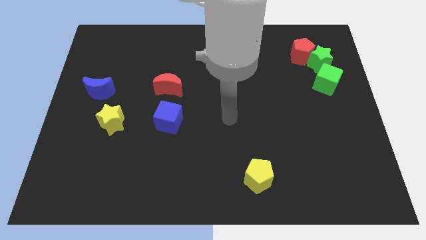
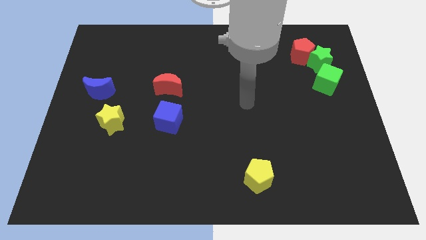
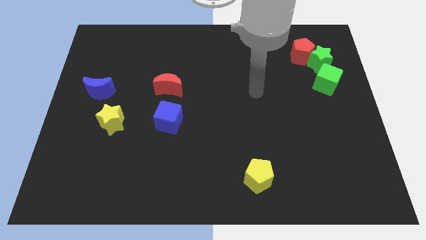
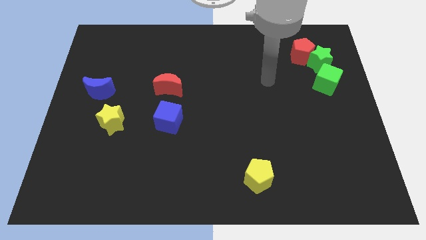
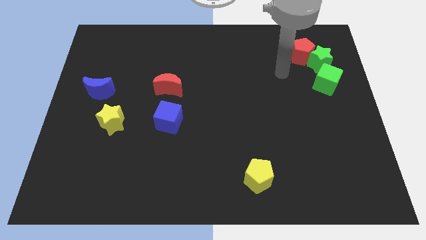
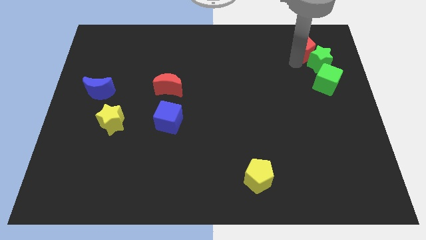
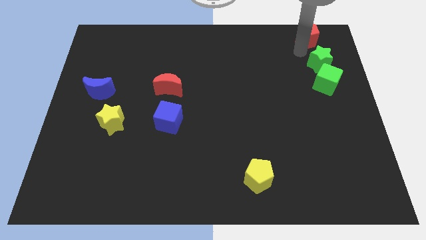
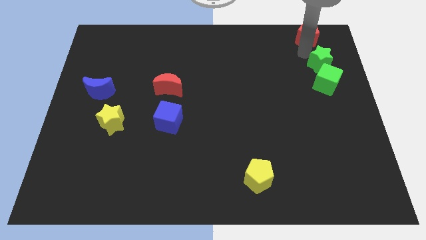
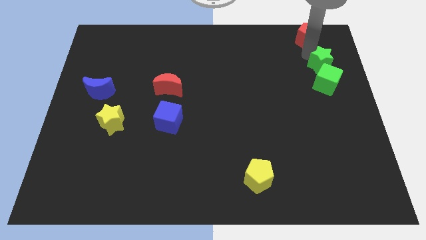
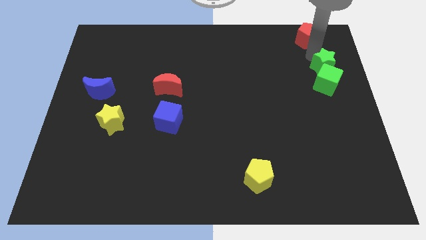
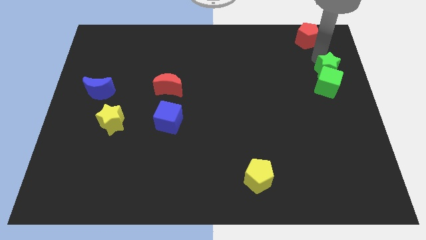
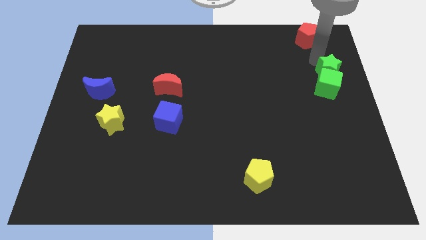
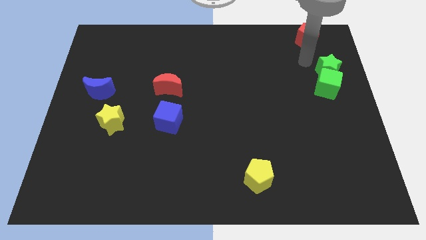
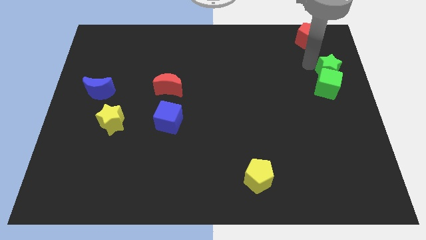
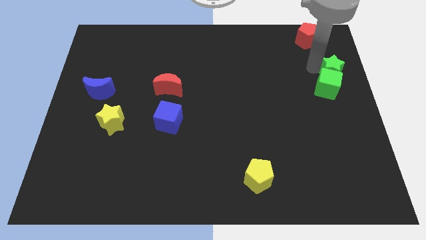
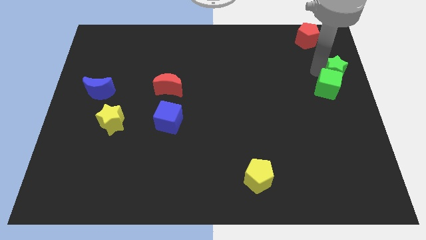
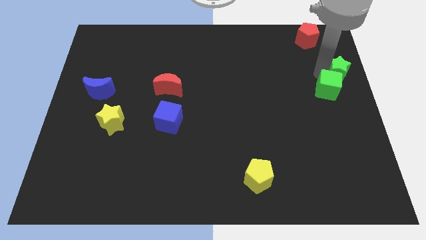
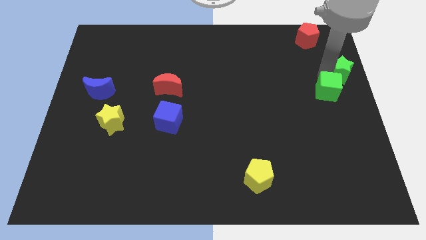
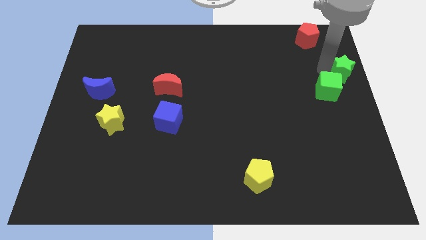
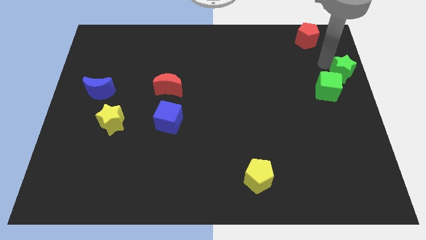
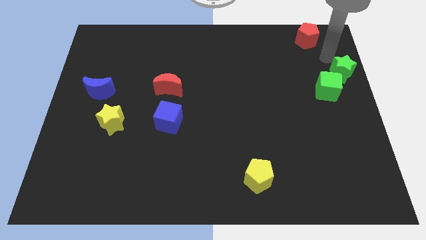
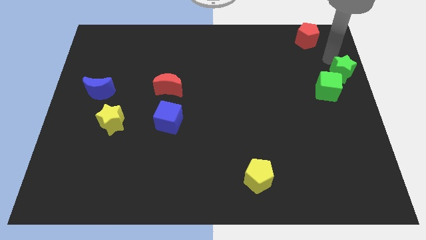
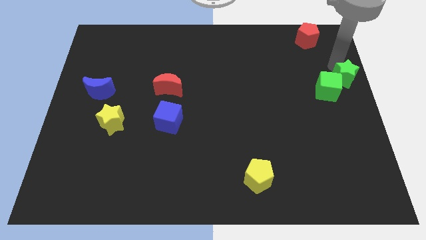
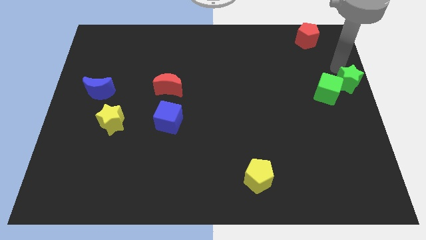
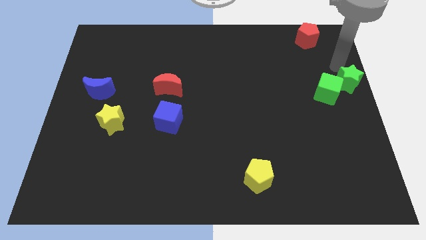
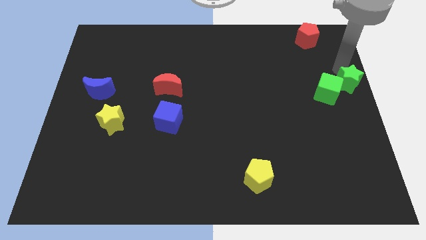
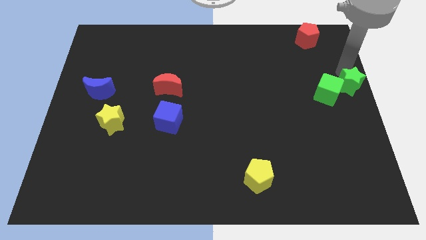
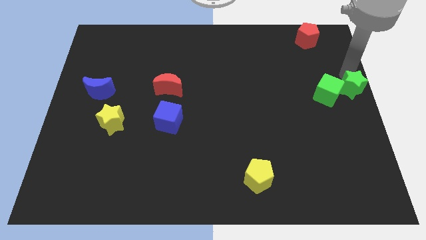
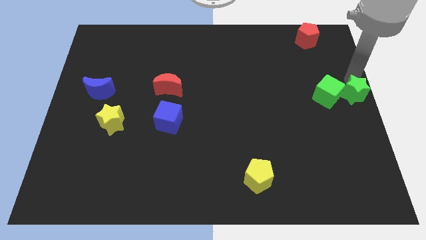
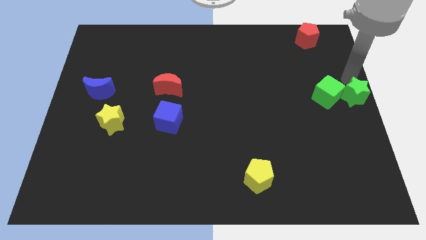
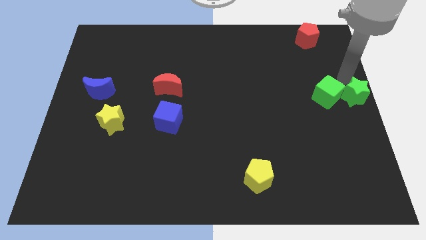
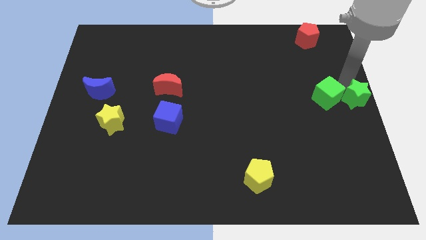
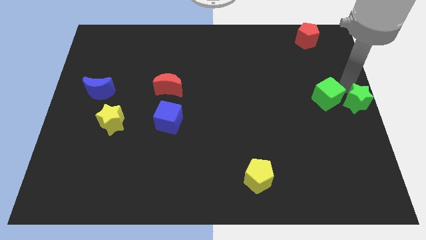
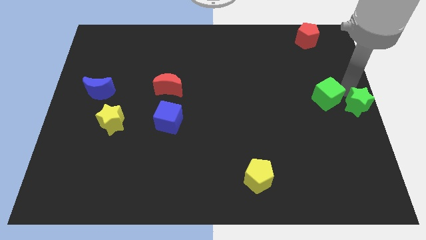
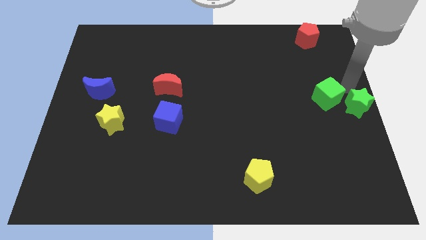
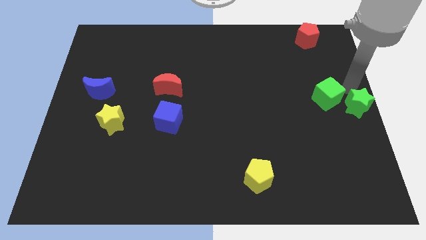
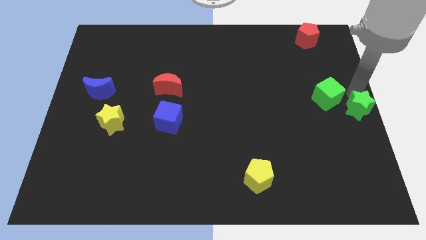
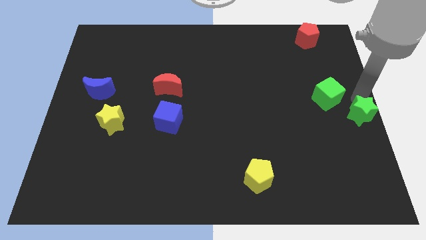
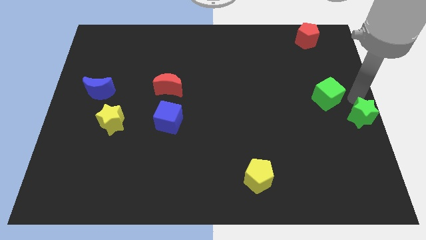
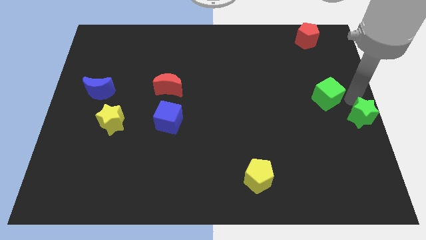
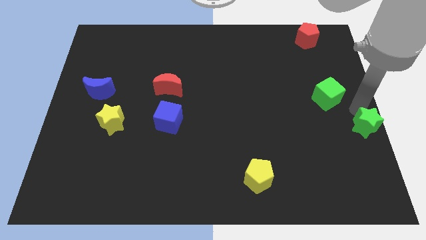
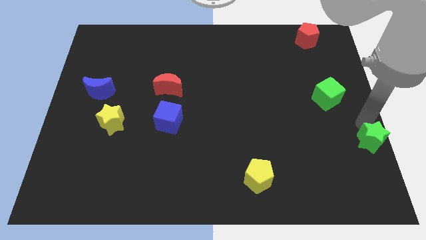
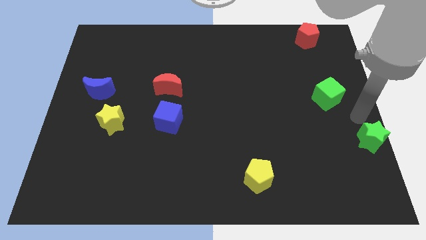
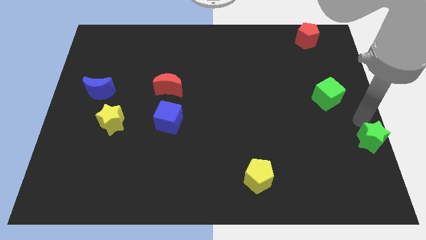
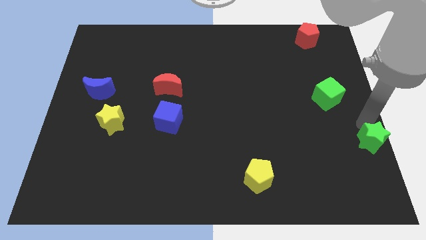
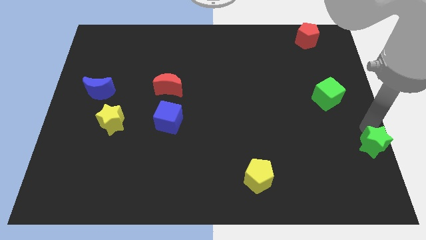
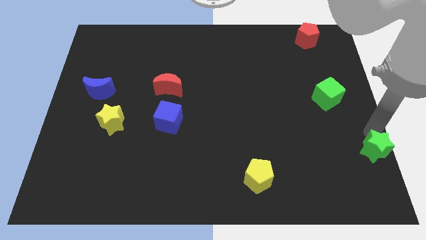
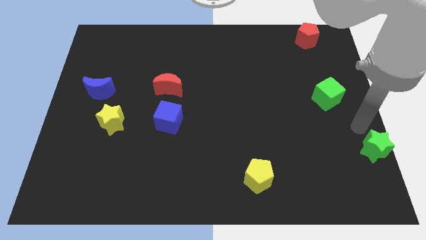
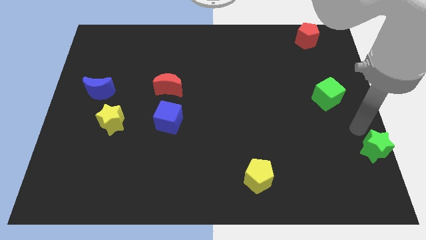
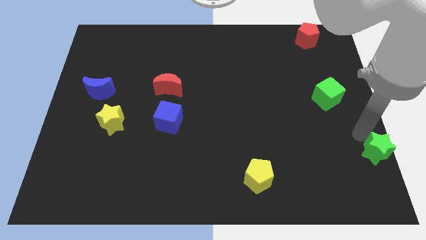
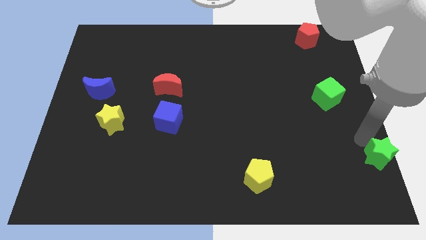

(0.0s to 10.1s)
put the green star to the bottom right

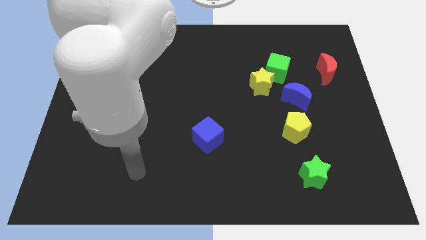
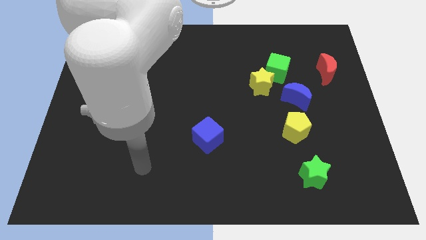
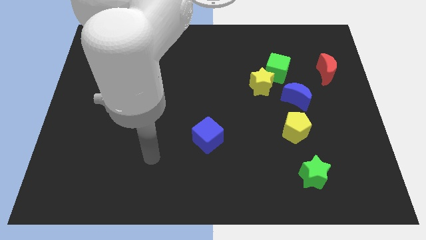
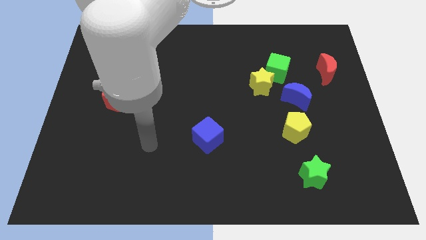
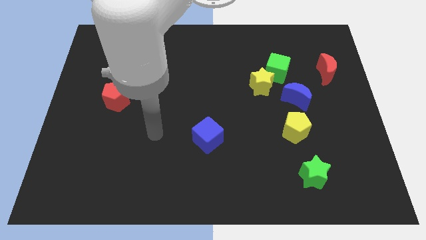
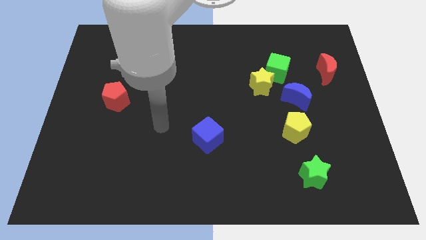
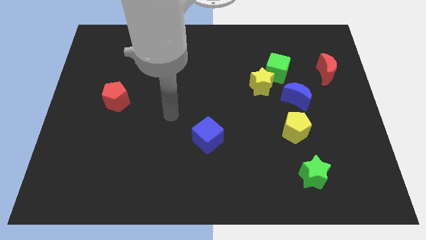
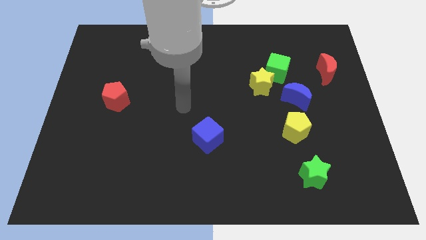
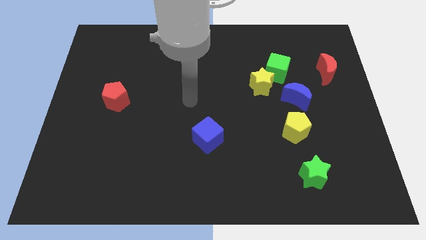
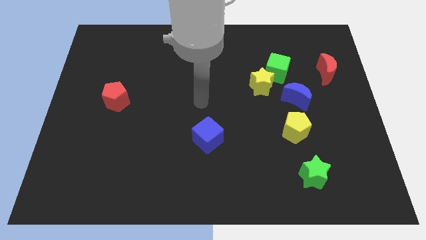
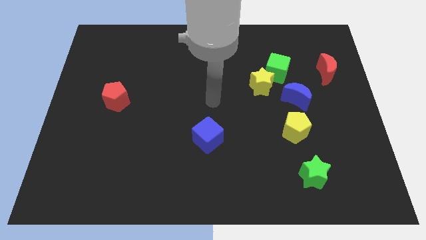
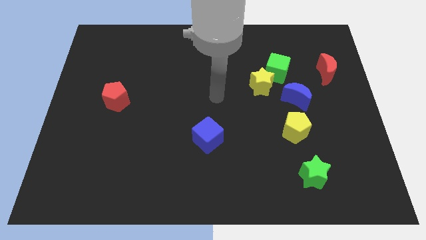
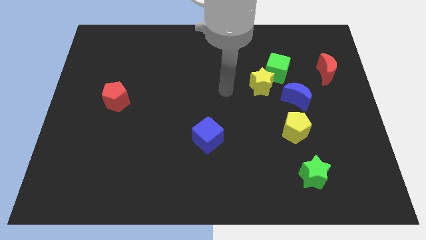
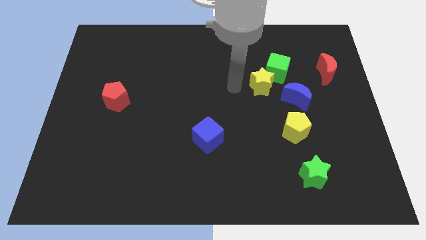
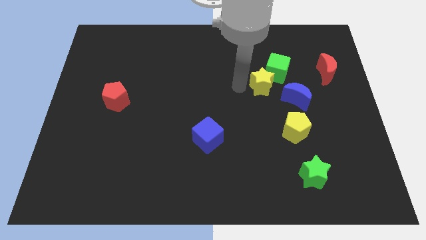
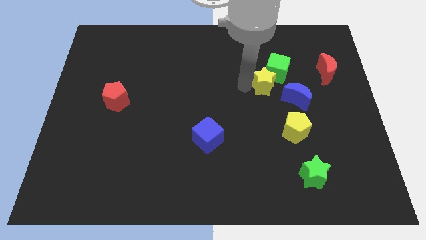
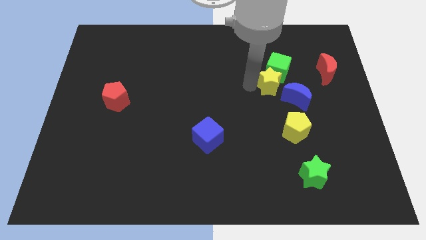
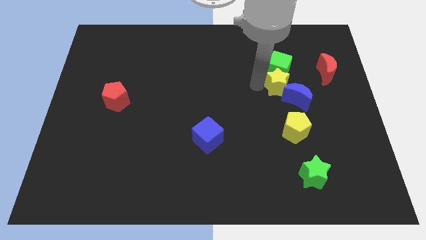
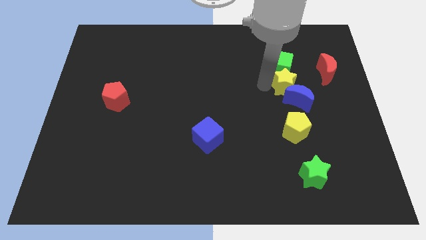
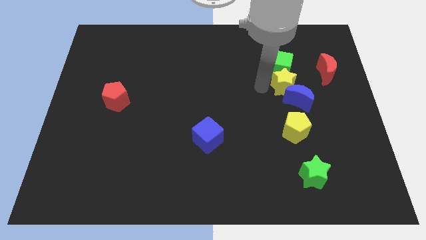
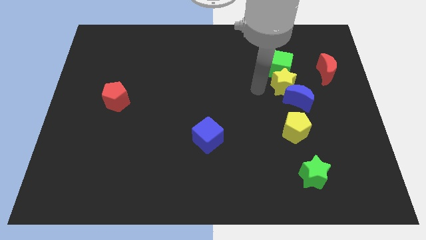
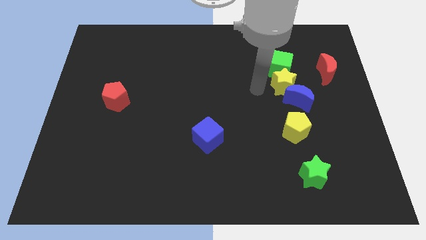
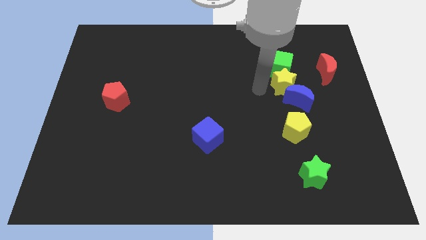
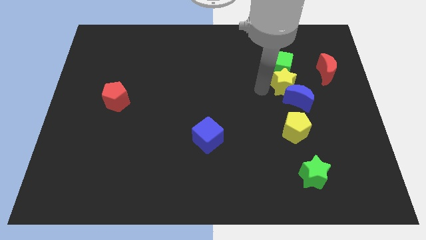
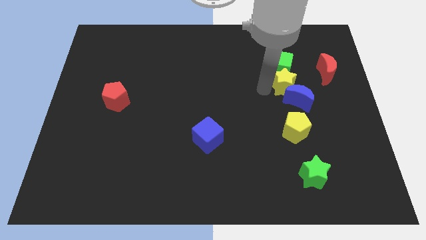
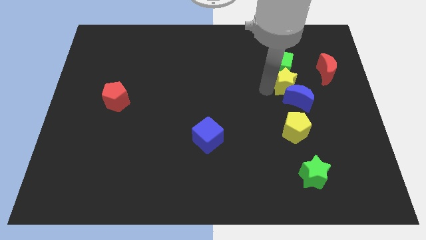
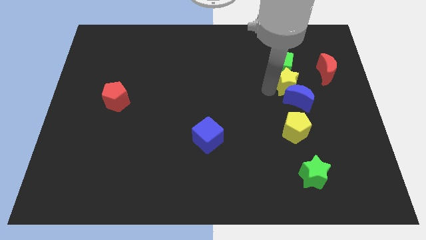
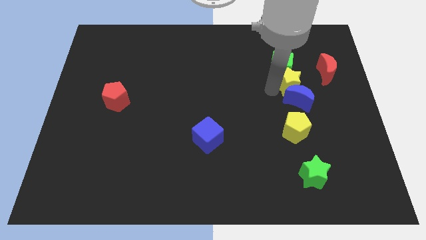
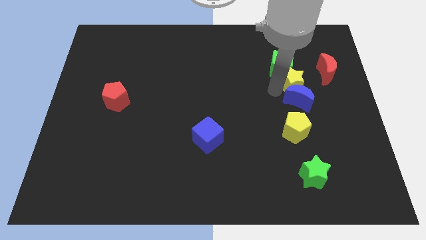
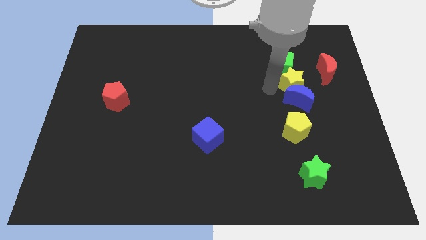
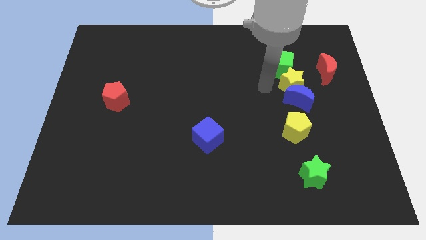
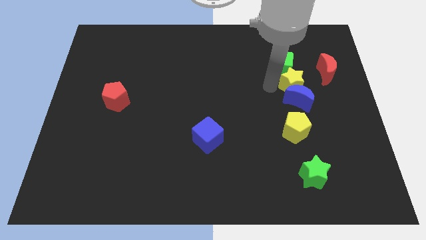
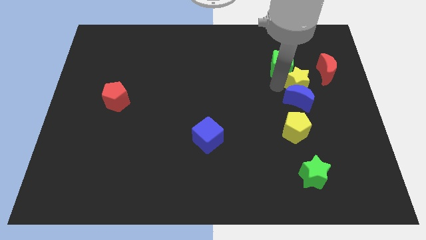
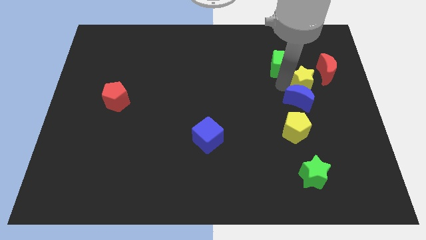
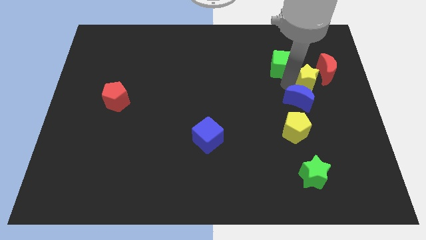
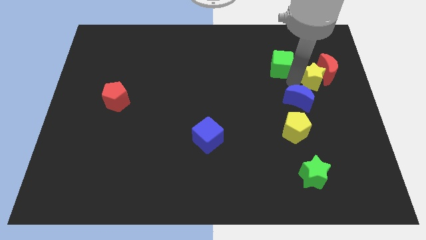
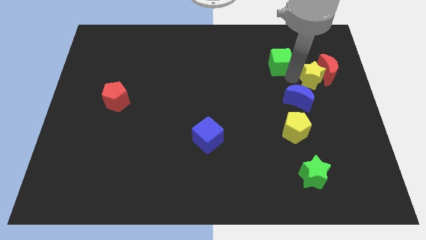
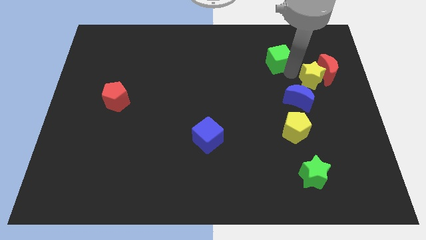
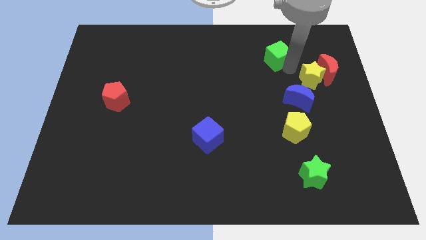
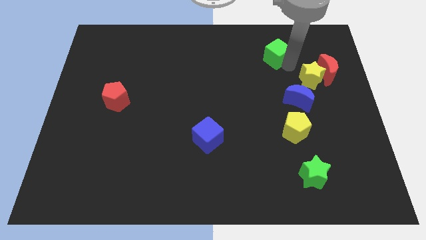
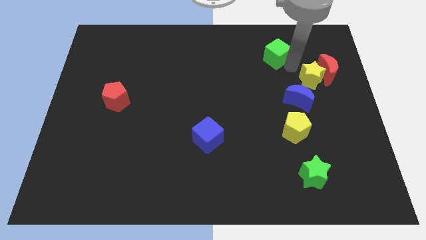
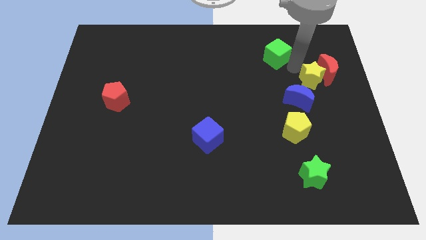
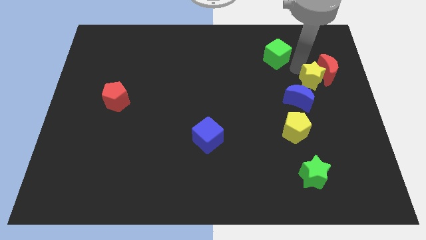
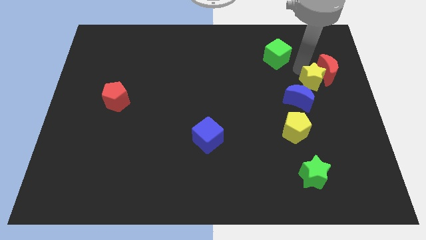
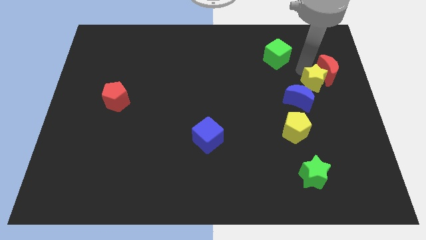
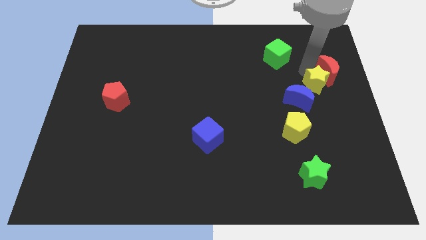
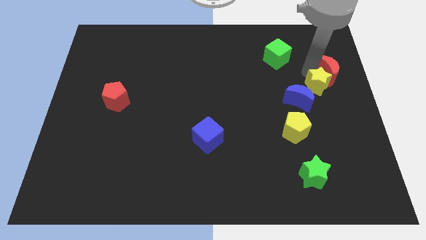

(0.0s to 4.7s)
slide the yellow star to the right side of the board
